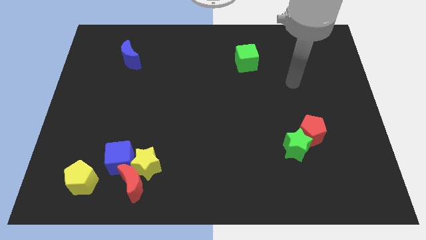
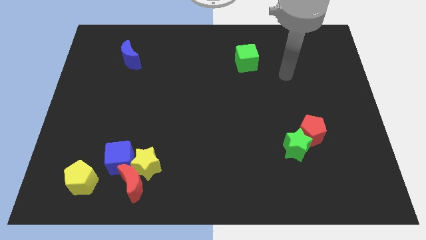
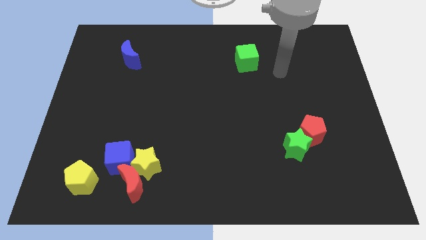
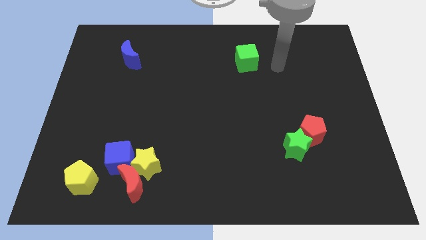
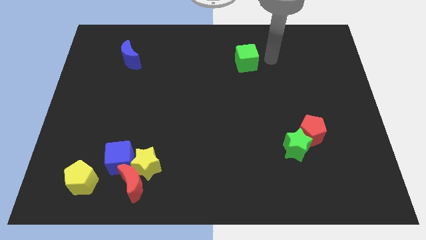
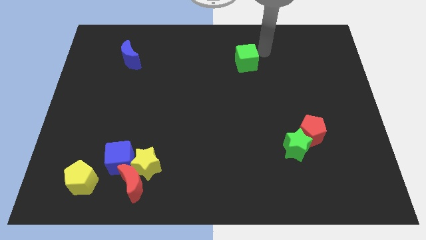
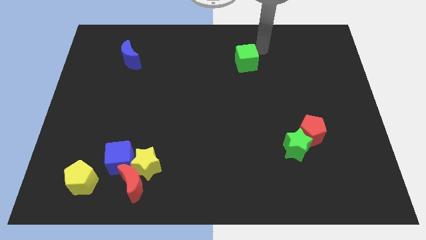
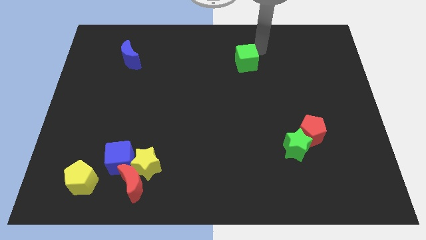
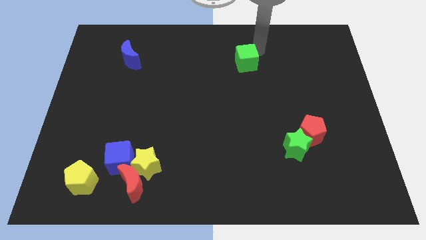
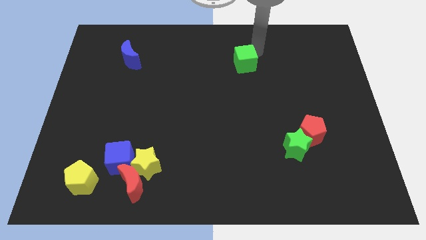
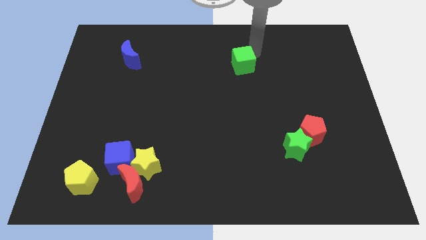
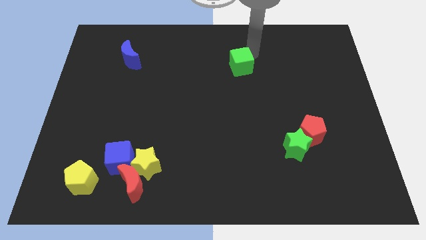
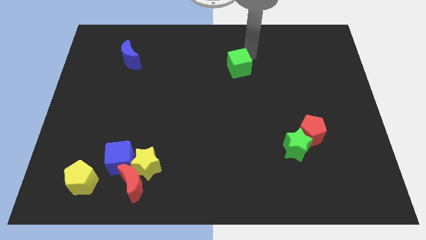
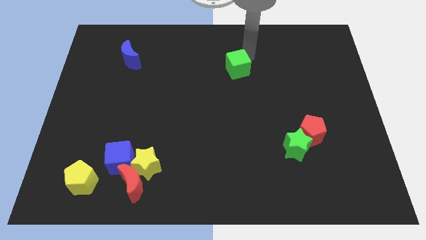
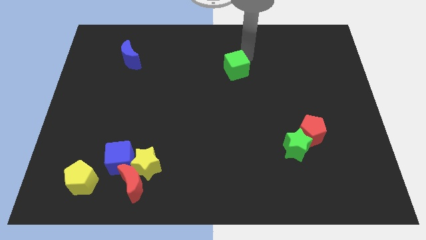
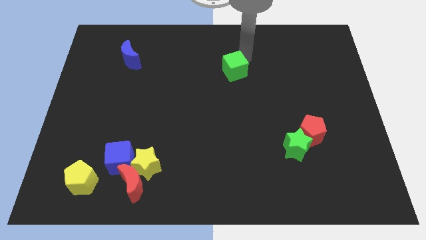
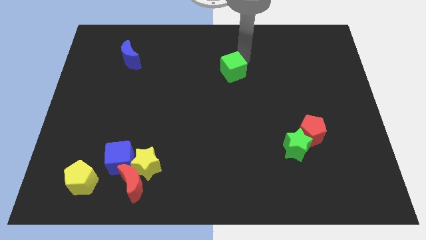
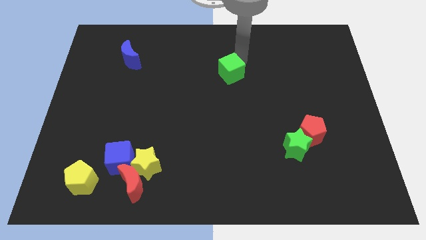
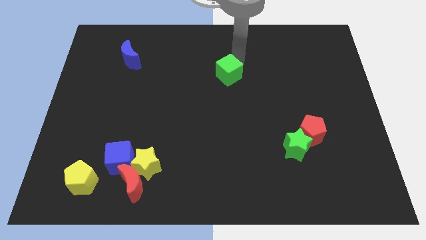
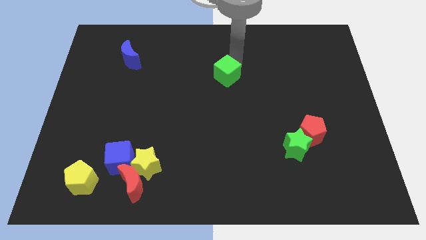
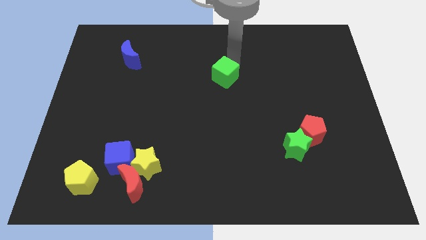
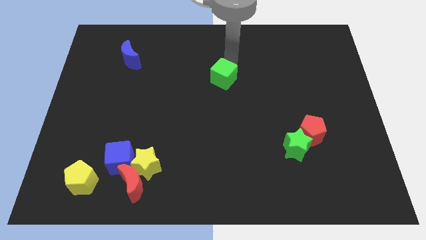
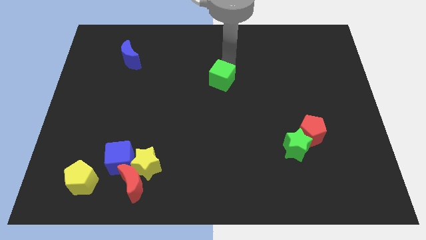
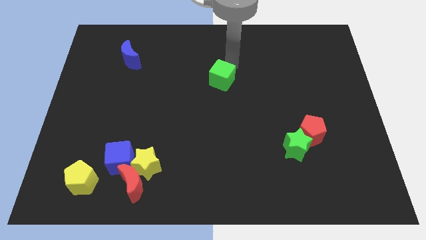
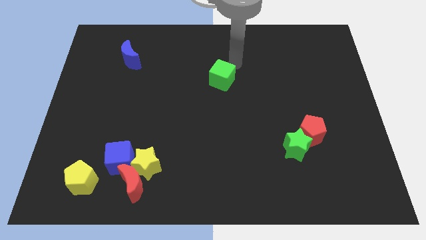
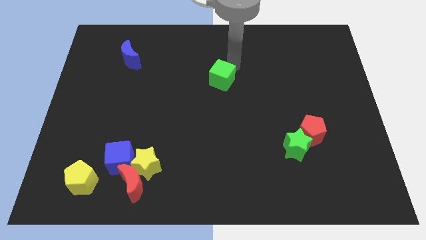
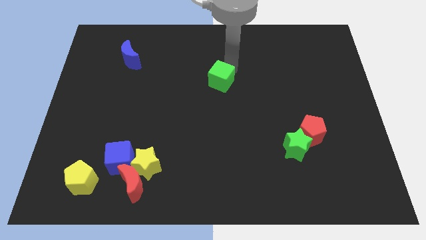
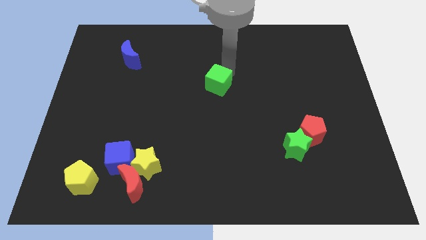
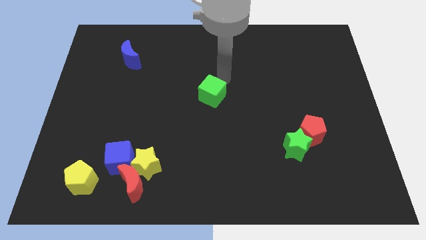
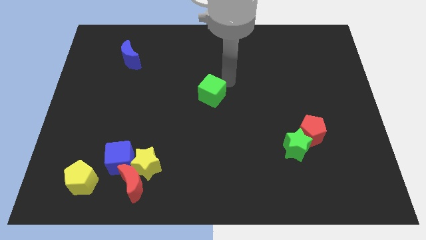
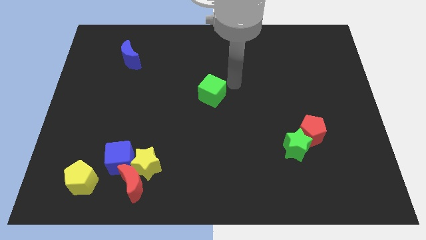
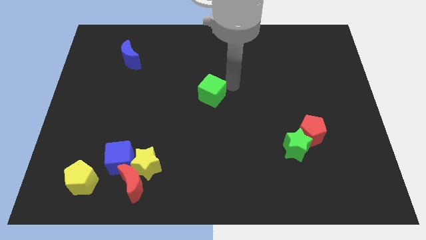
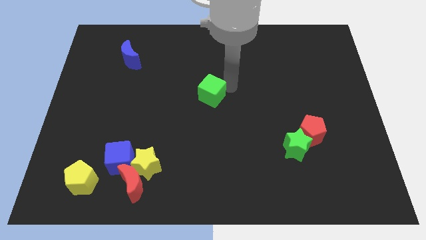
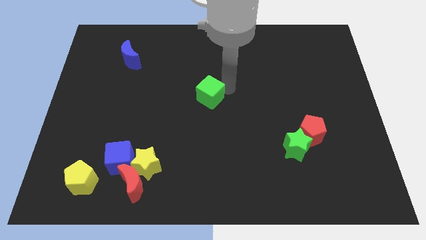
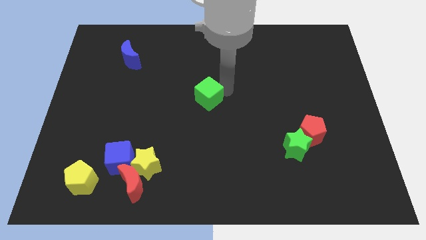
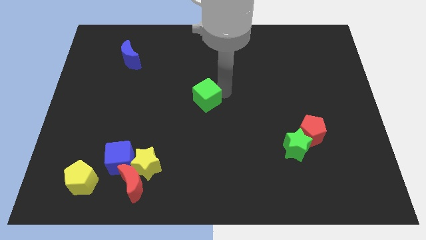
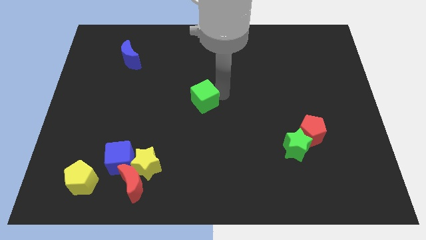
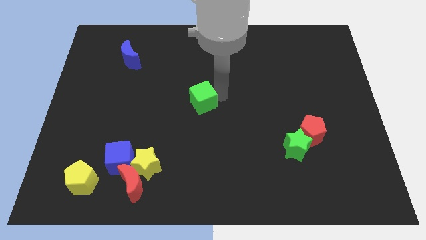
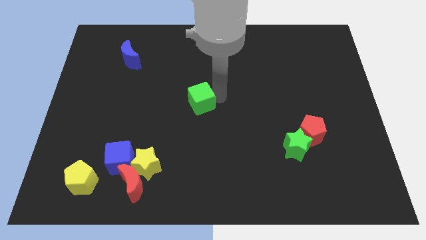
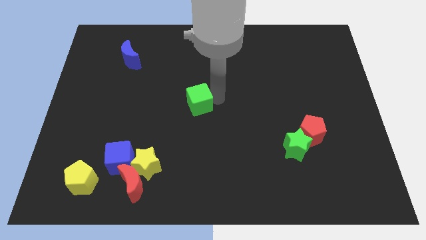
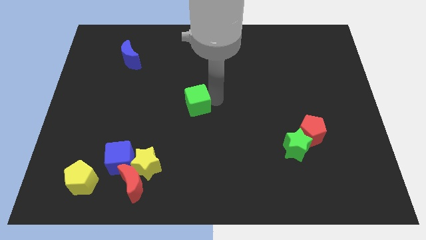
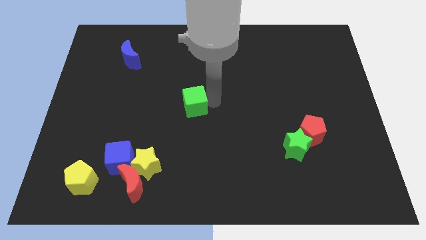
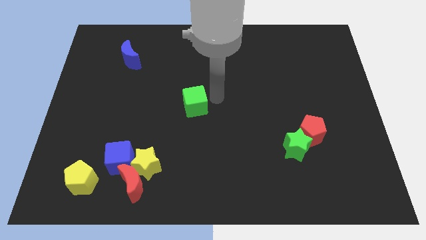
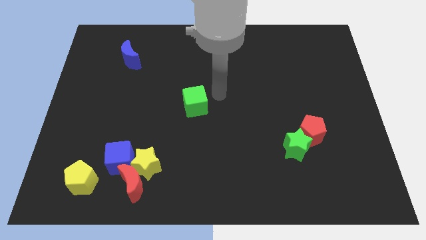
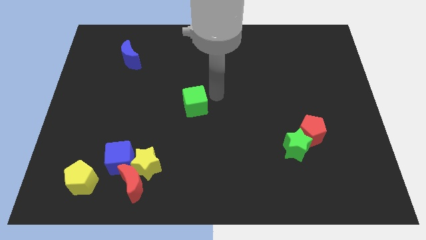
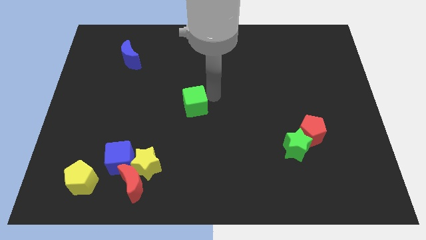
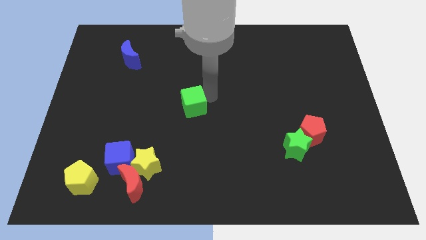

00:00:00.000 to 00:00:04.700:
move the green cube downwards and then to the left

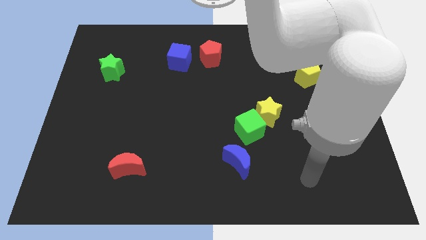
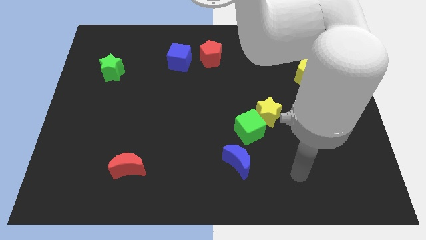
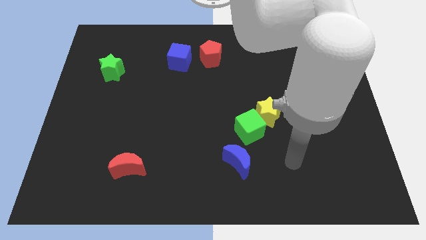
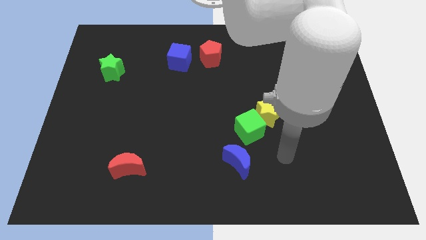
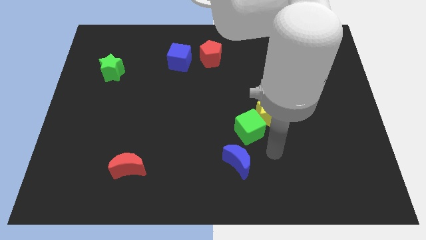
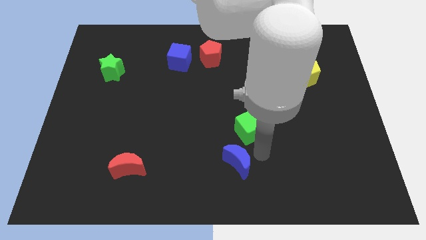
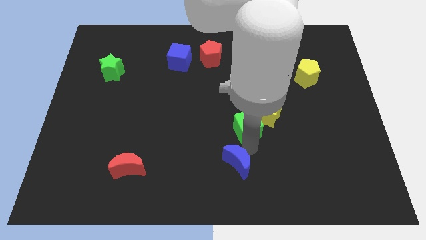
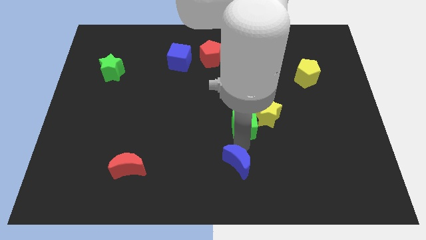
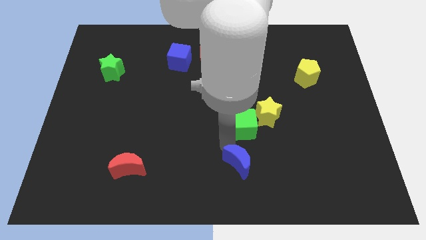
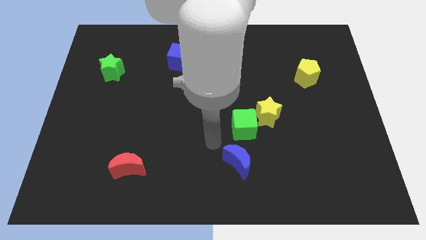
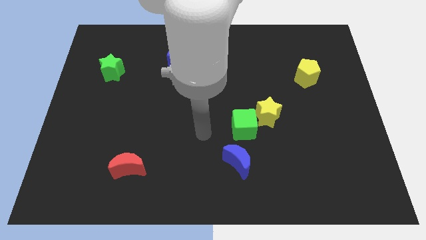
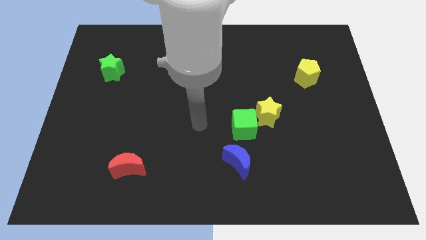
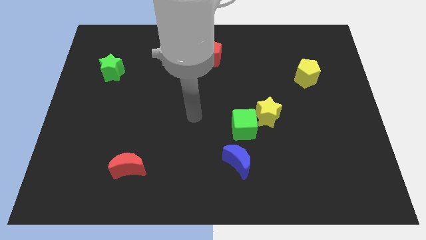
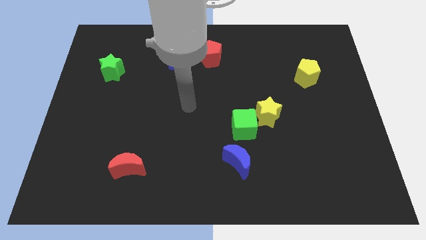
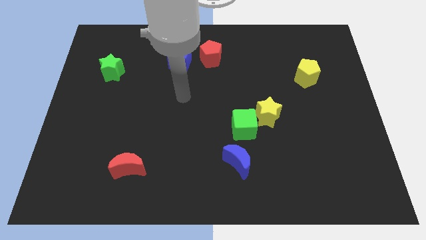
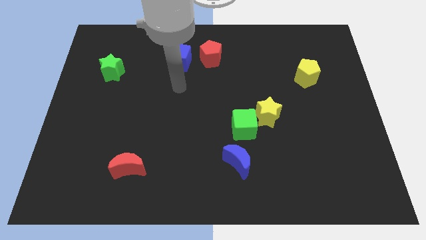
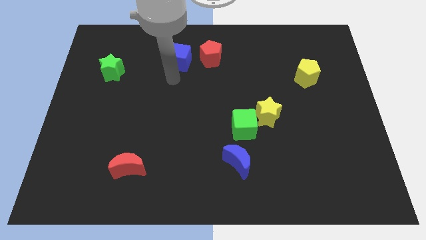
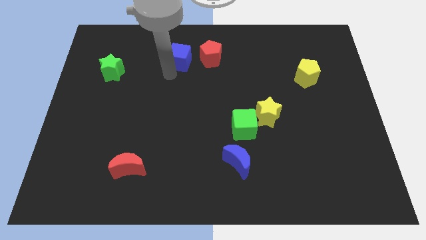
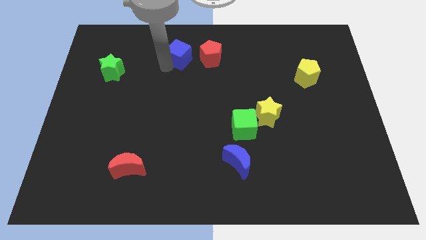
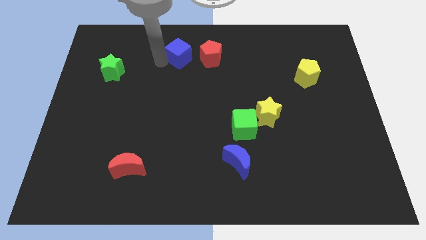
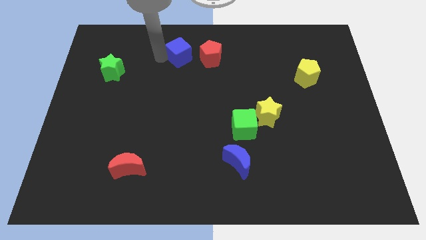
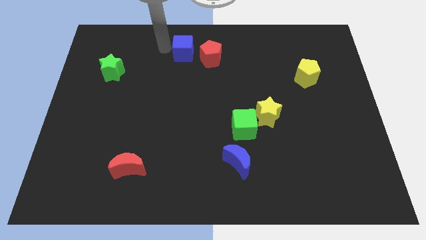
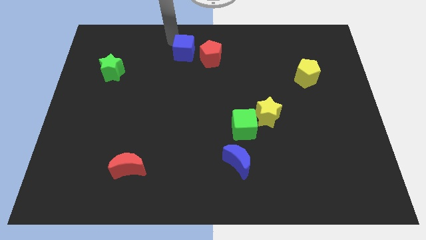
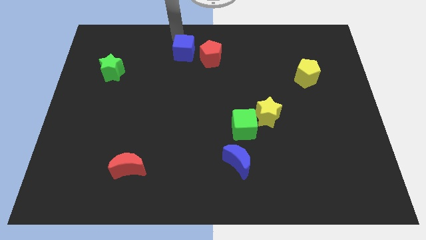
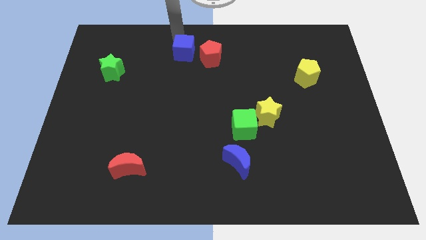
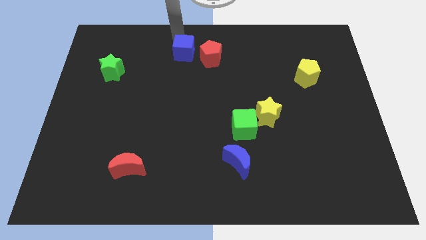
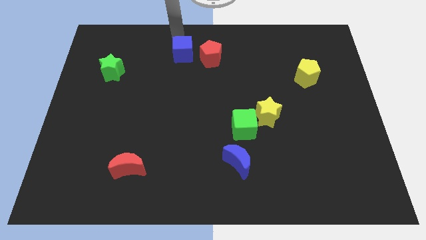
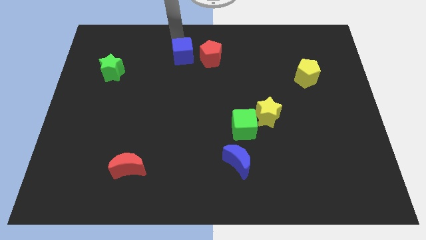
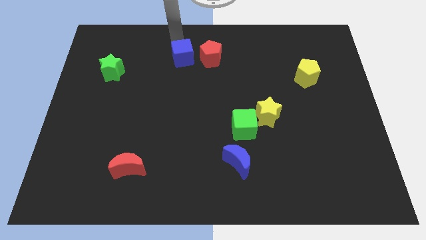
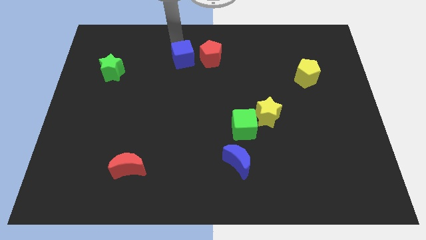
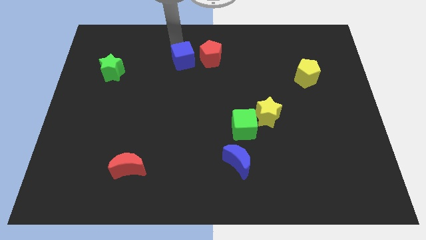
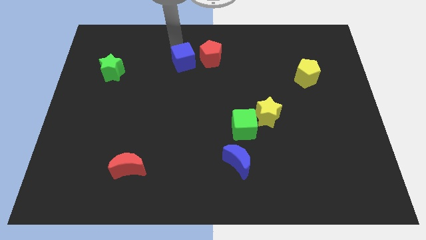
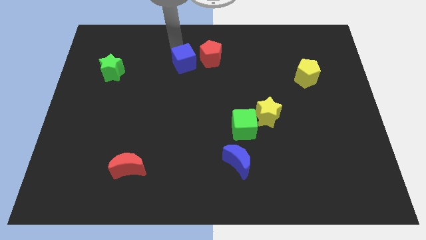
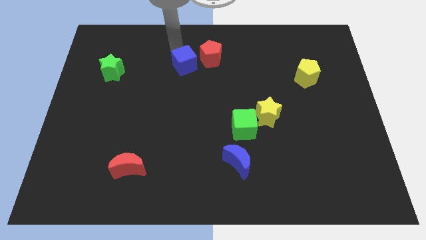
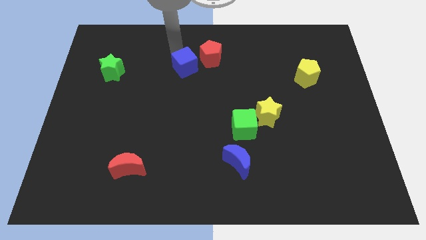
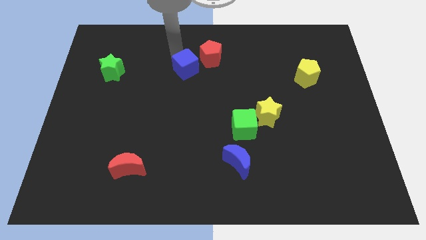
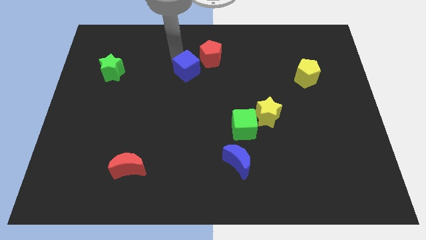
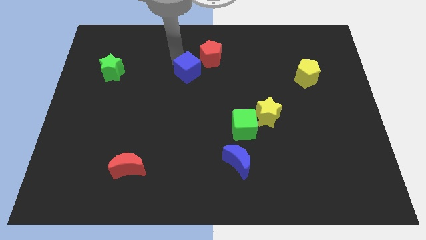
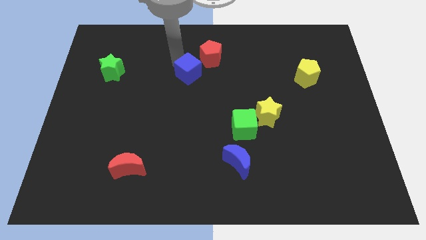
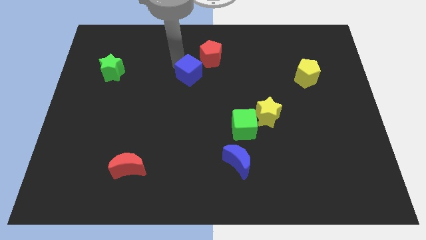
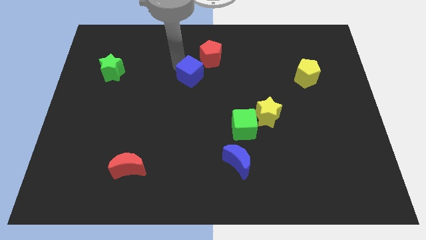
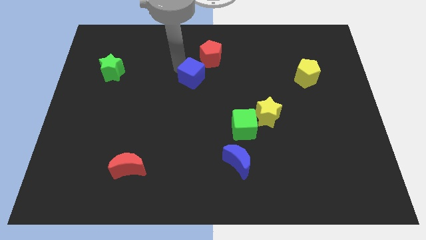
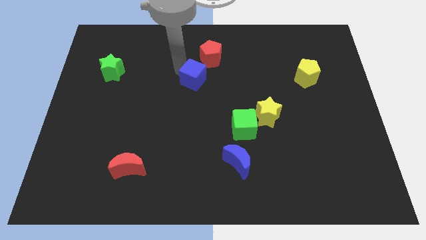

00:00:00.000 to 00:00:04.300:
slide the blue cube downwards and to the right diagonally a little
